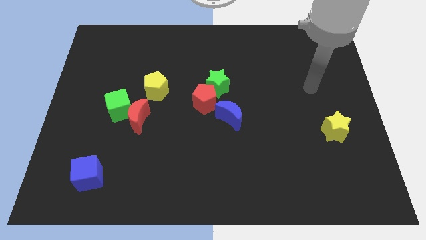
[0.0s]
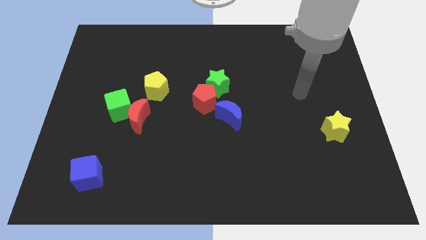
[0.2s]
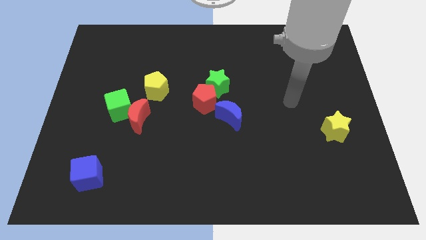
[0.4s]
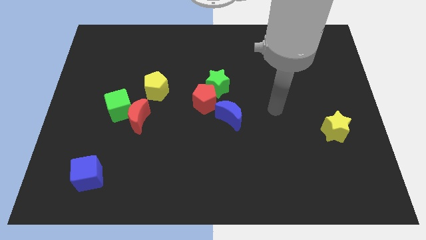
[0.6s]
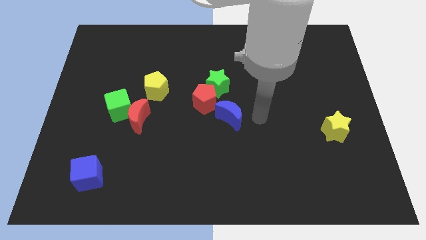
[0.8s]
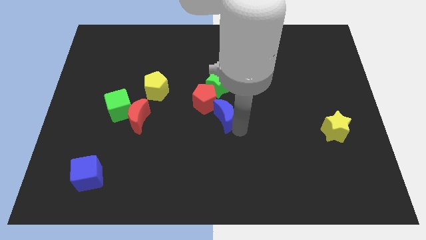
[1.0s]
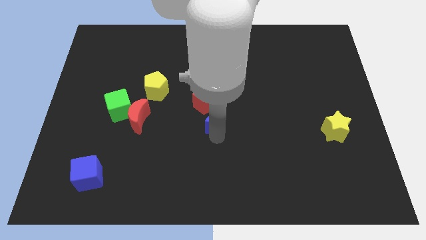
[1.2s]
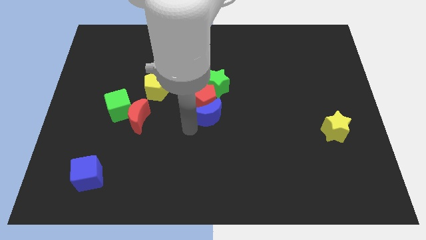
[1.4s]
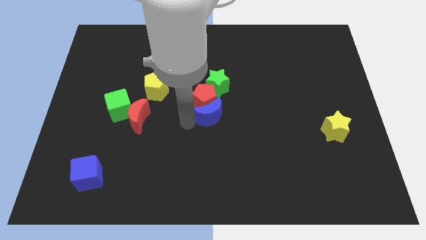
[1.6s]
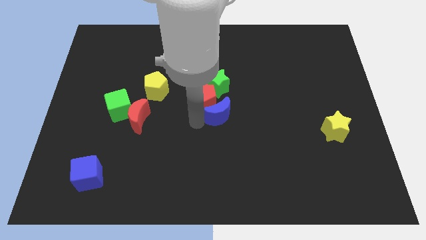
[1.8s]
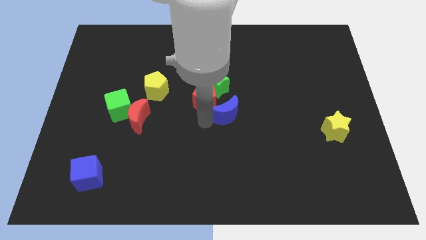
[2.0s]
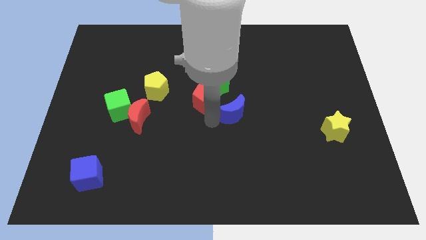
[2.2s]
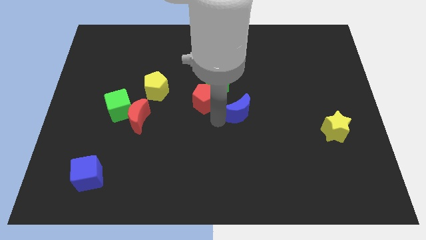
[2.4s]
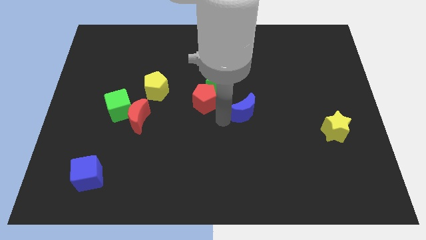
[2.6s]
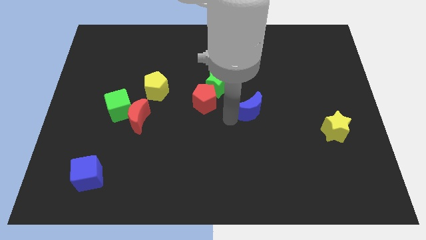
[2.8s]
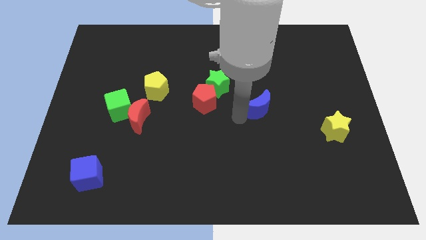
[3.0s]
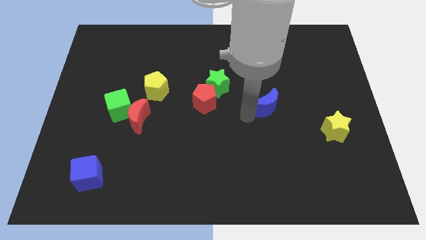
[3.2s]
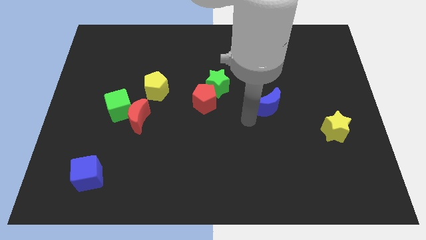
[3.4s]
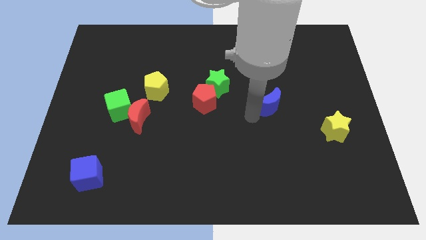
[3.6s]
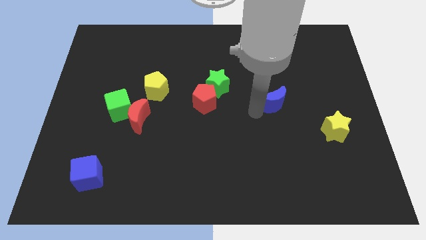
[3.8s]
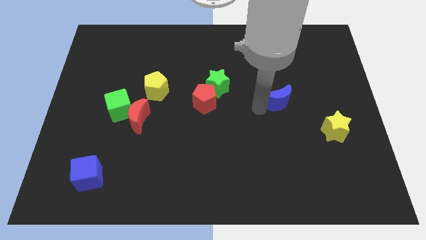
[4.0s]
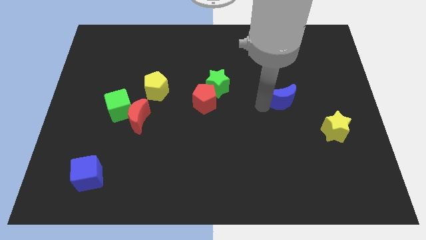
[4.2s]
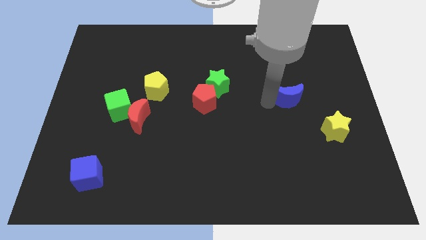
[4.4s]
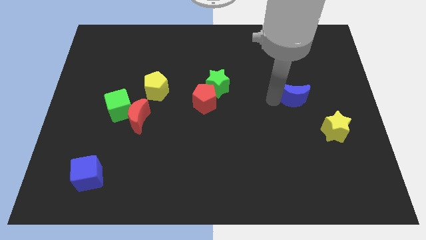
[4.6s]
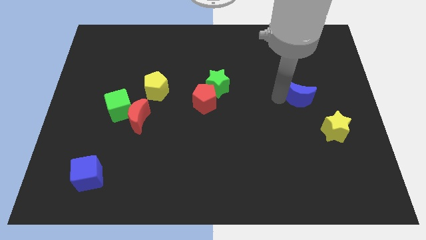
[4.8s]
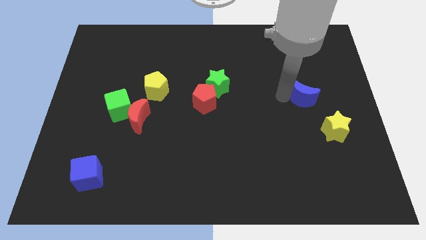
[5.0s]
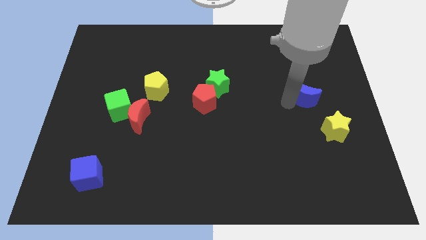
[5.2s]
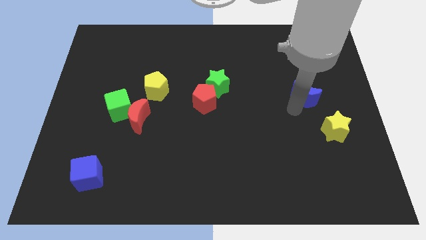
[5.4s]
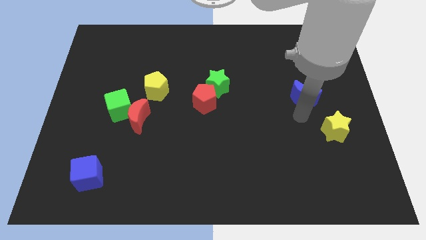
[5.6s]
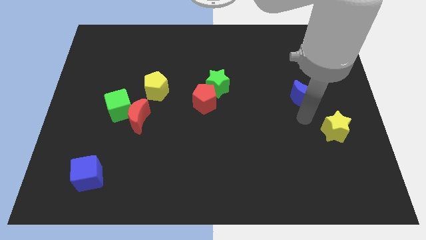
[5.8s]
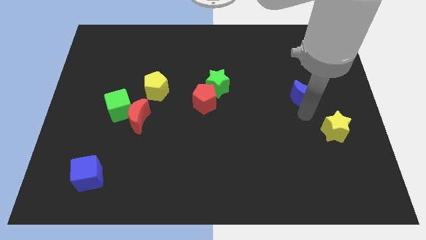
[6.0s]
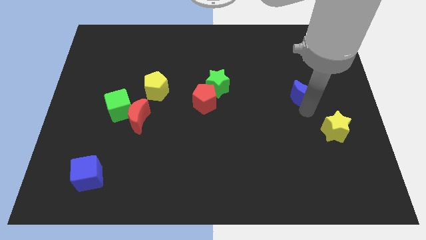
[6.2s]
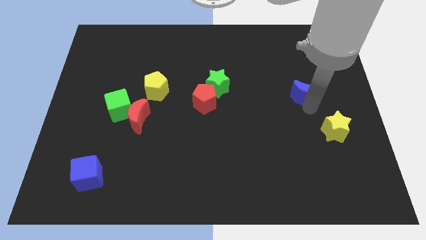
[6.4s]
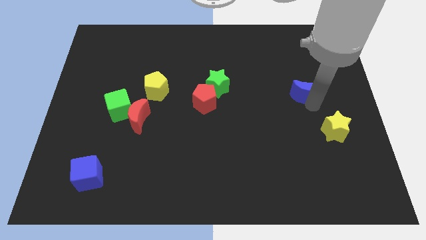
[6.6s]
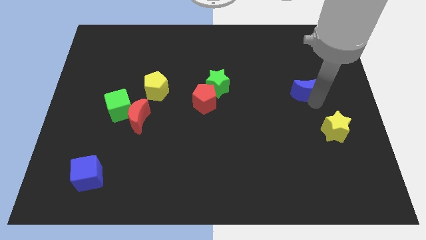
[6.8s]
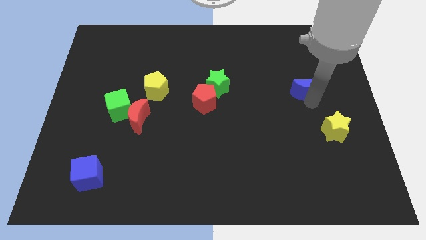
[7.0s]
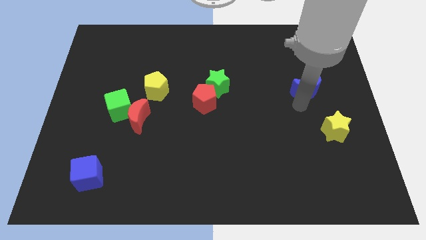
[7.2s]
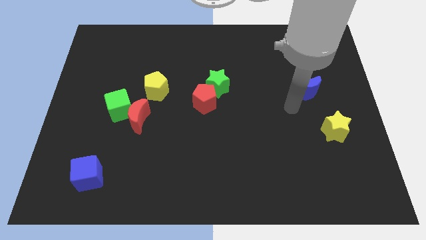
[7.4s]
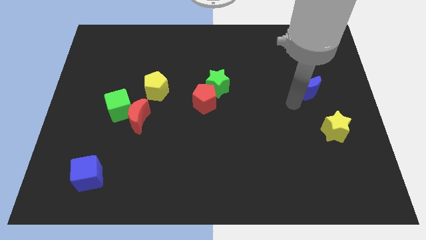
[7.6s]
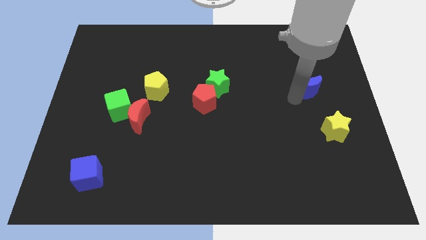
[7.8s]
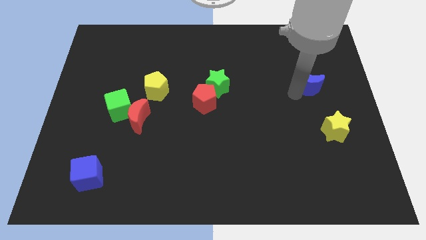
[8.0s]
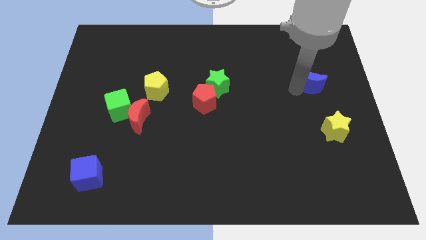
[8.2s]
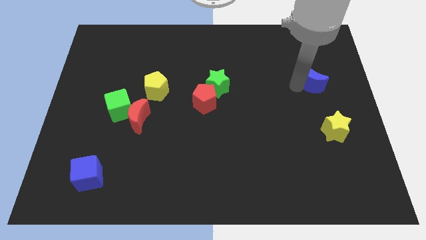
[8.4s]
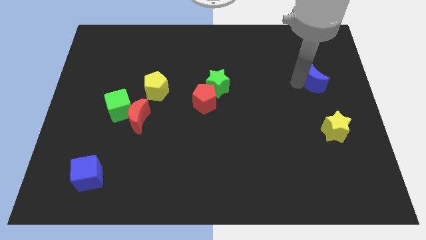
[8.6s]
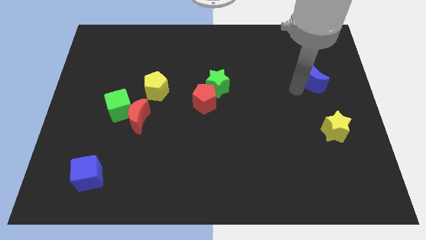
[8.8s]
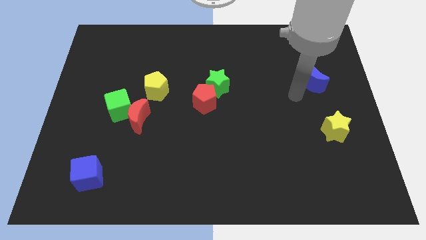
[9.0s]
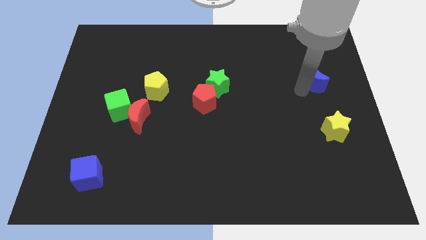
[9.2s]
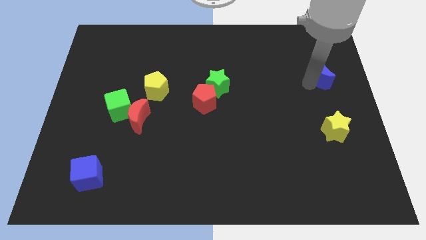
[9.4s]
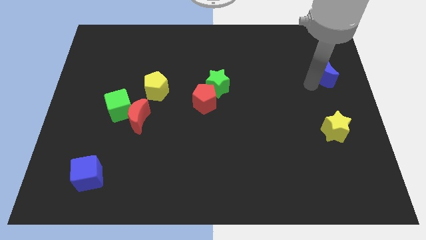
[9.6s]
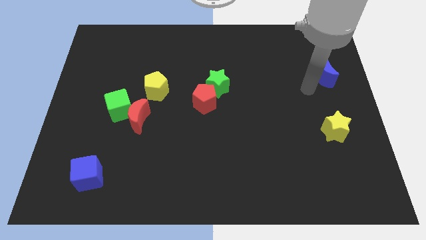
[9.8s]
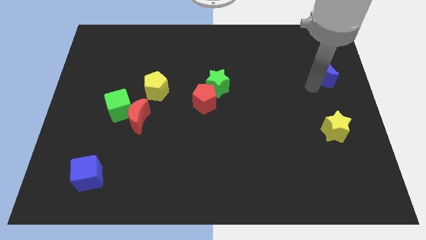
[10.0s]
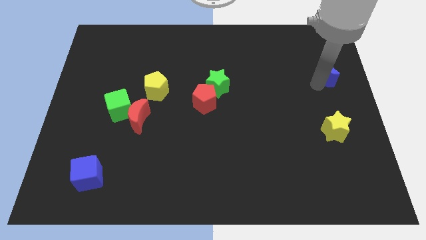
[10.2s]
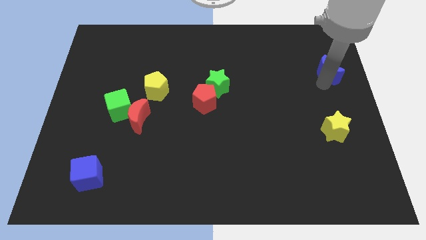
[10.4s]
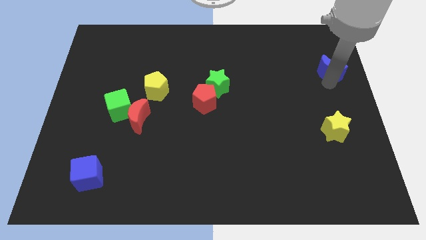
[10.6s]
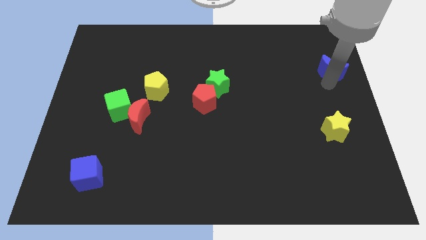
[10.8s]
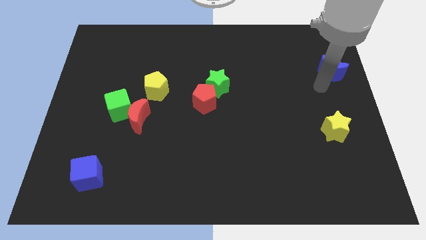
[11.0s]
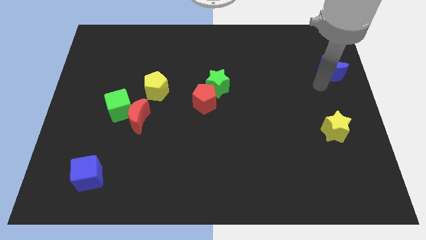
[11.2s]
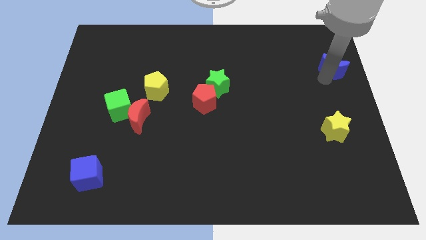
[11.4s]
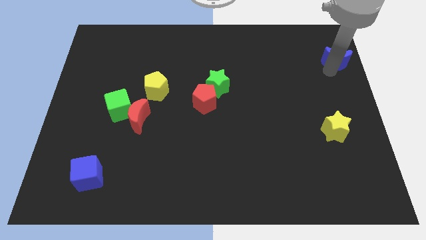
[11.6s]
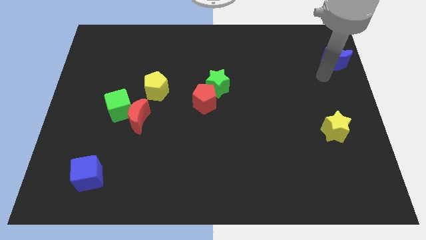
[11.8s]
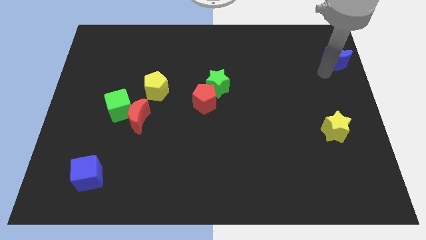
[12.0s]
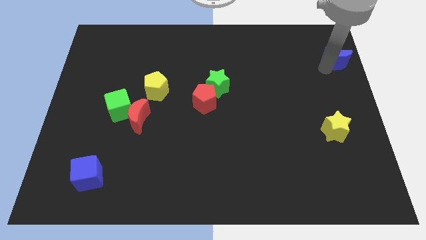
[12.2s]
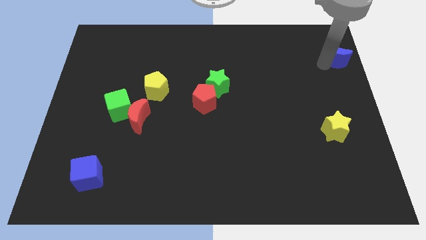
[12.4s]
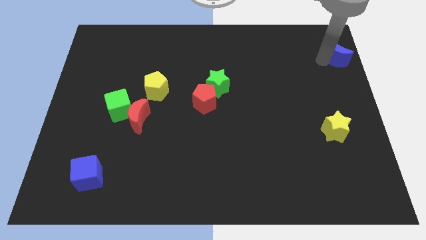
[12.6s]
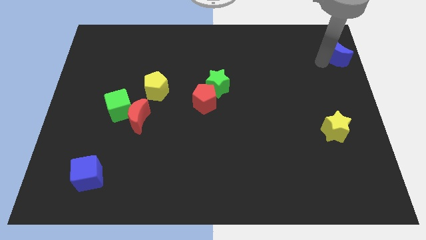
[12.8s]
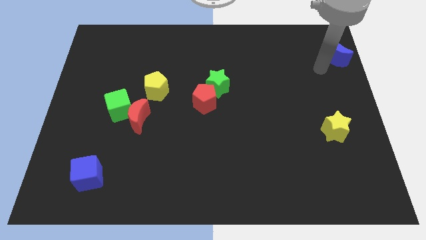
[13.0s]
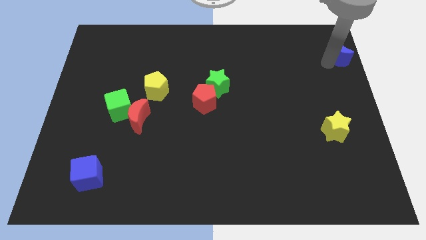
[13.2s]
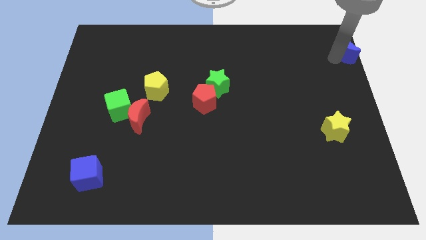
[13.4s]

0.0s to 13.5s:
push the blue moon to the top right corner
